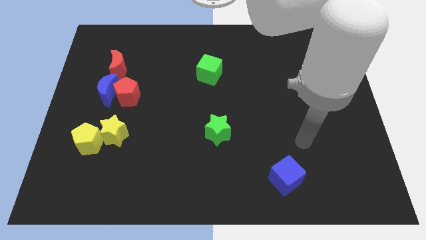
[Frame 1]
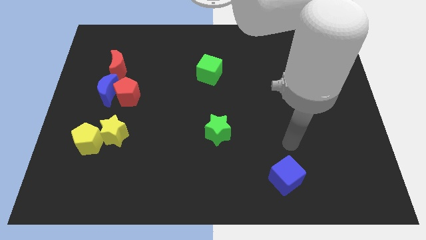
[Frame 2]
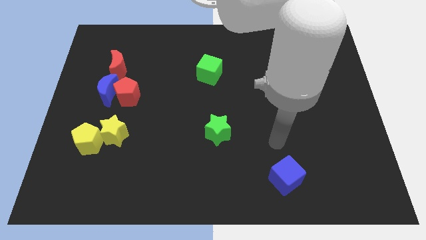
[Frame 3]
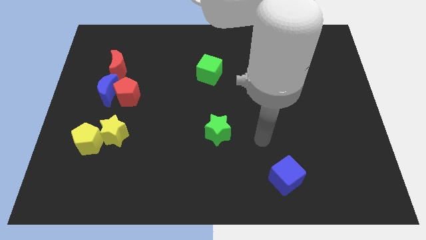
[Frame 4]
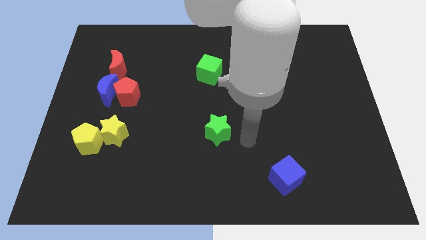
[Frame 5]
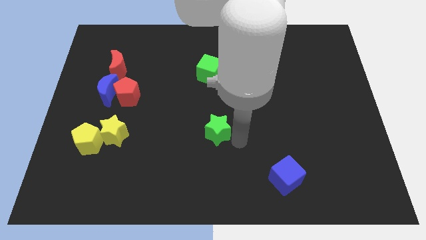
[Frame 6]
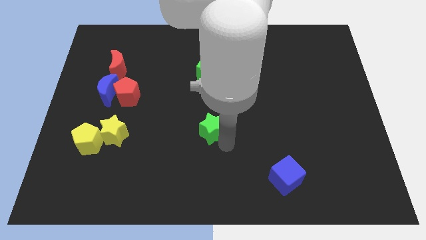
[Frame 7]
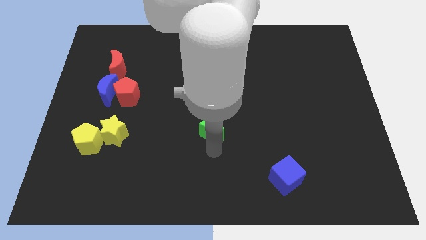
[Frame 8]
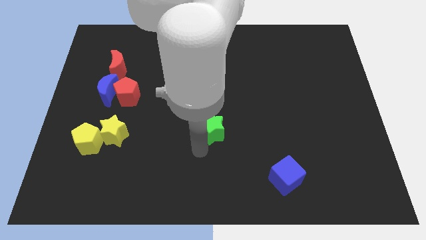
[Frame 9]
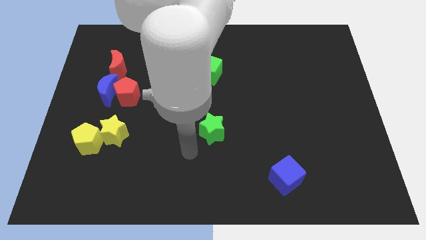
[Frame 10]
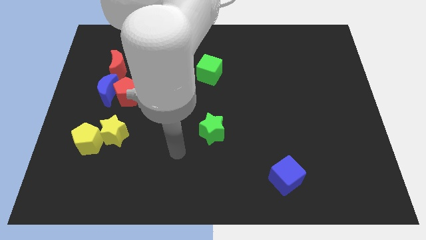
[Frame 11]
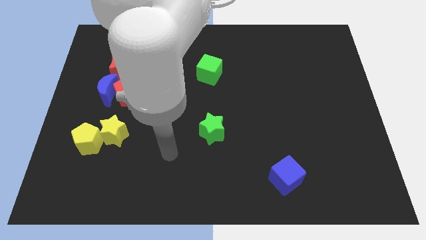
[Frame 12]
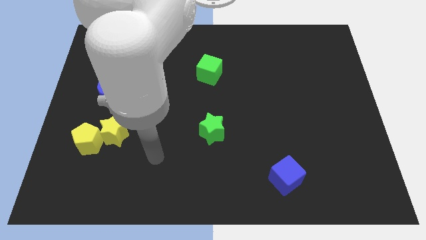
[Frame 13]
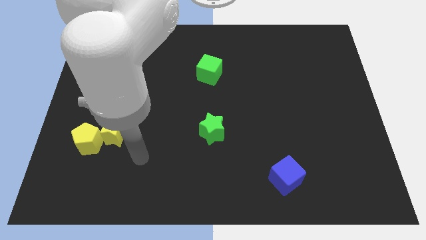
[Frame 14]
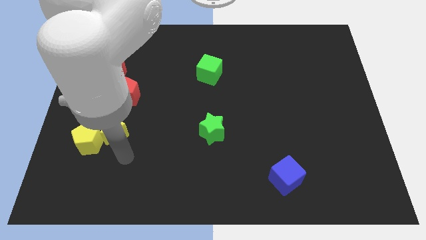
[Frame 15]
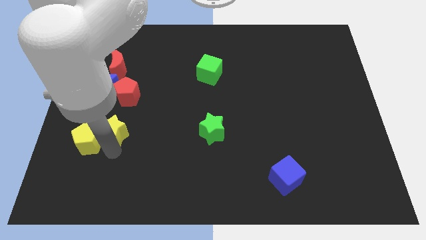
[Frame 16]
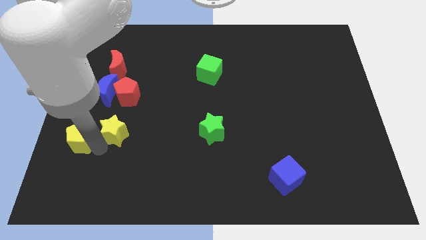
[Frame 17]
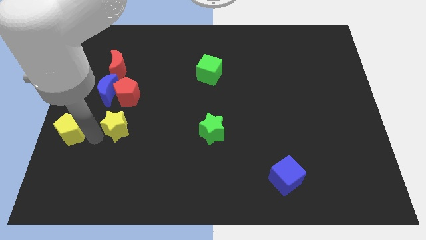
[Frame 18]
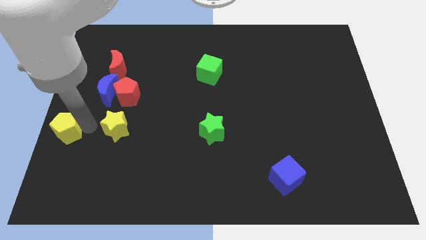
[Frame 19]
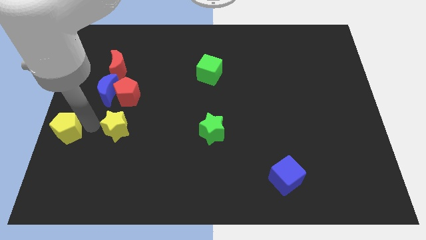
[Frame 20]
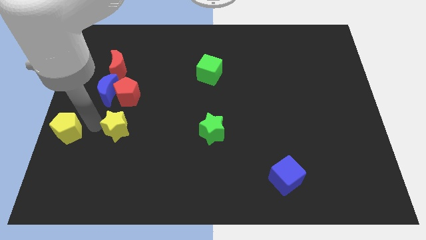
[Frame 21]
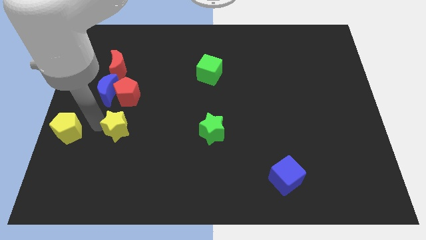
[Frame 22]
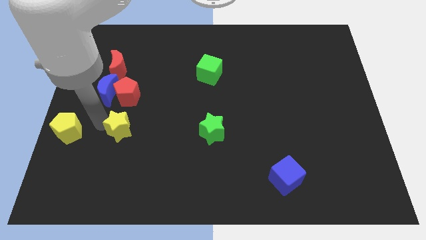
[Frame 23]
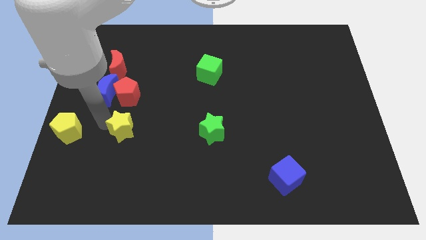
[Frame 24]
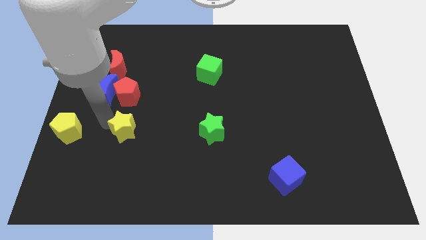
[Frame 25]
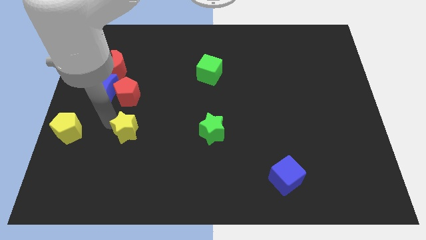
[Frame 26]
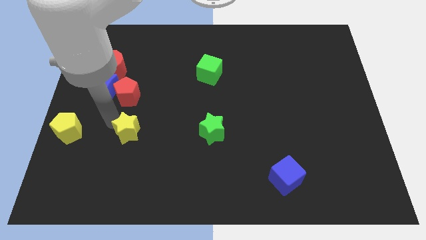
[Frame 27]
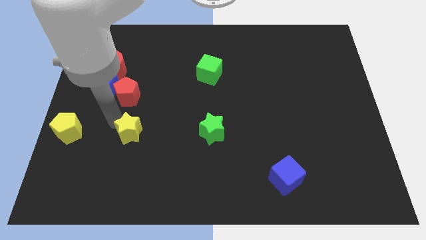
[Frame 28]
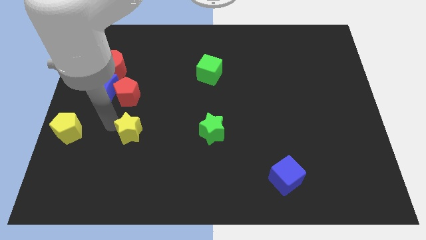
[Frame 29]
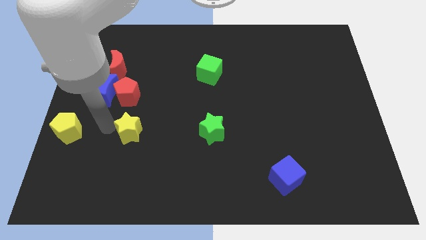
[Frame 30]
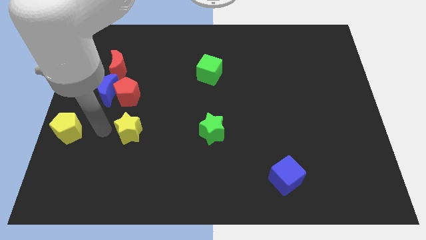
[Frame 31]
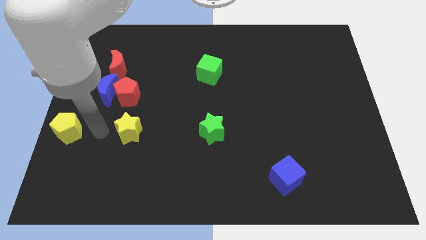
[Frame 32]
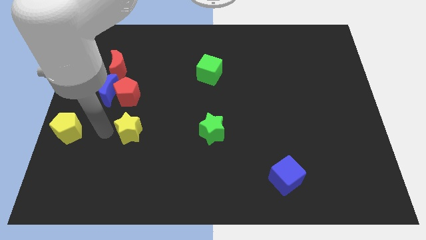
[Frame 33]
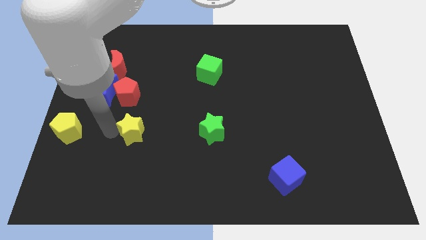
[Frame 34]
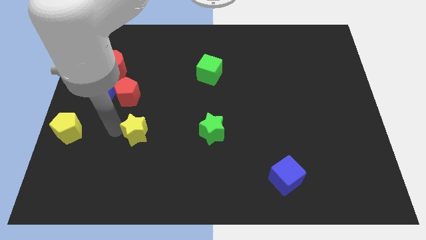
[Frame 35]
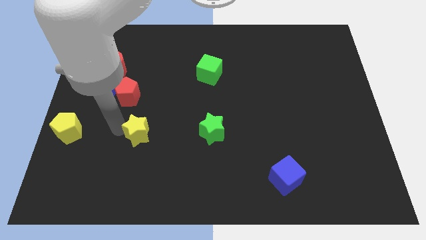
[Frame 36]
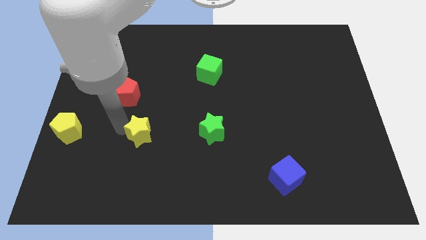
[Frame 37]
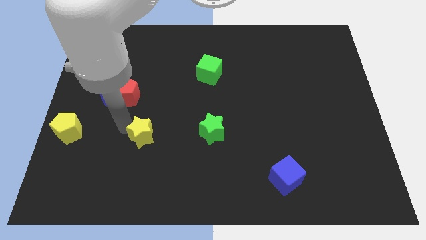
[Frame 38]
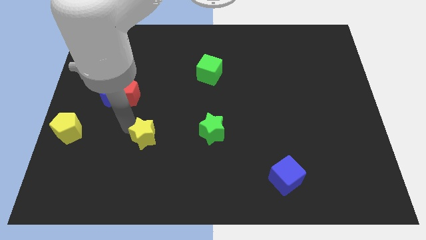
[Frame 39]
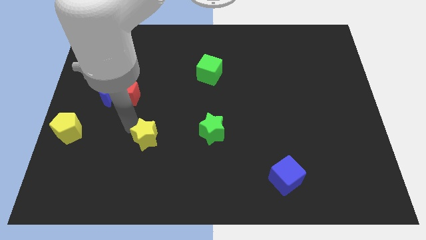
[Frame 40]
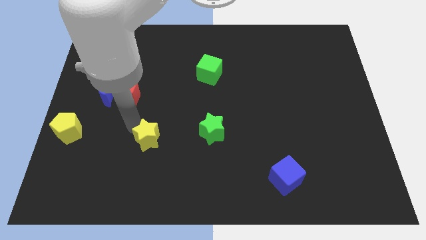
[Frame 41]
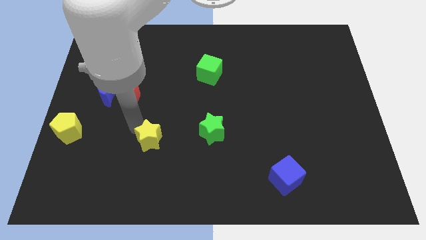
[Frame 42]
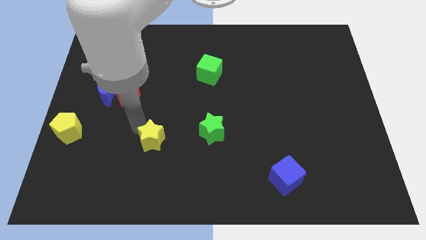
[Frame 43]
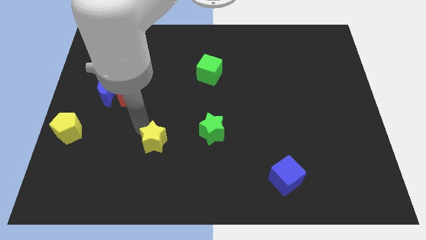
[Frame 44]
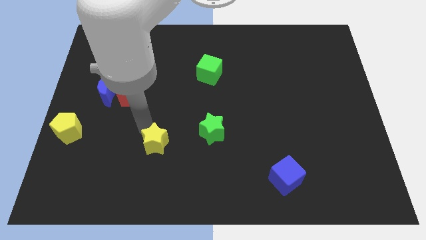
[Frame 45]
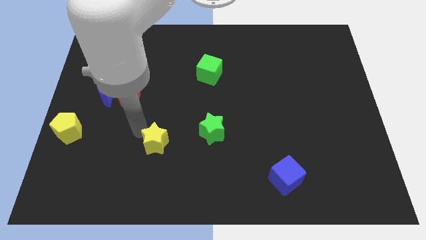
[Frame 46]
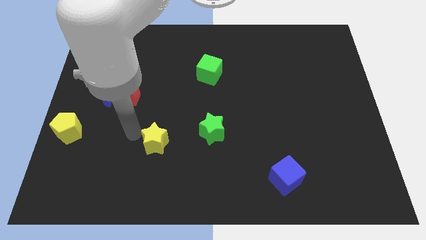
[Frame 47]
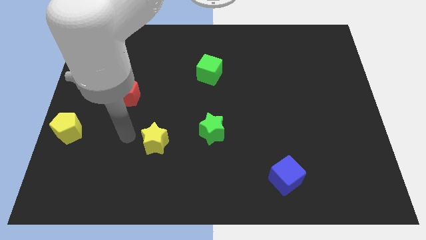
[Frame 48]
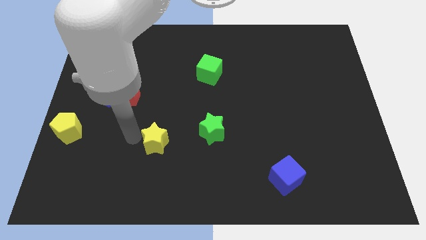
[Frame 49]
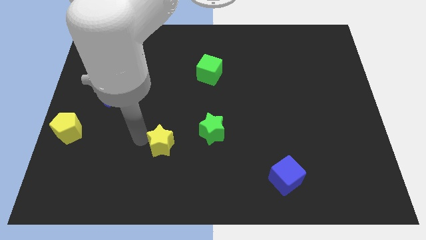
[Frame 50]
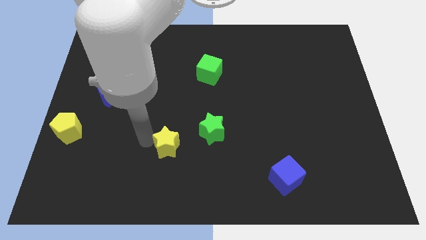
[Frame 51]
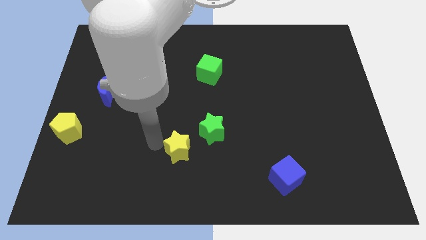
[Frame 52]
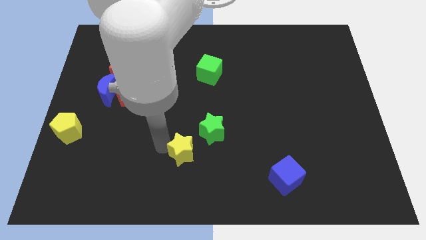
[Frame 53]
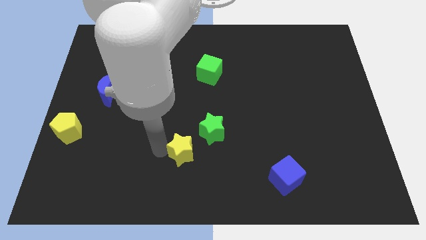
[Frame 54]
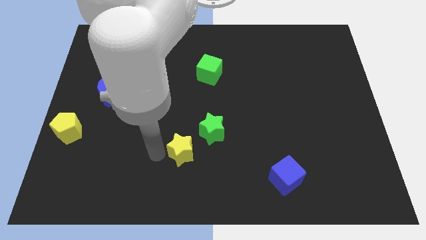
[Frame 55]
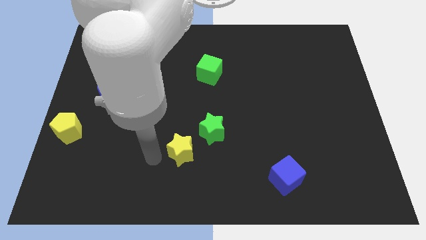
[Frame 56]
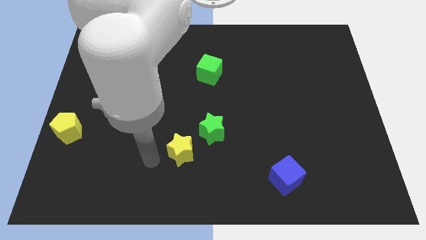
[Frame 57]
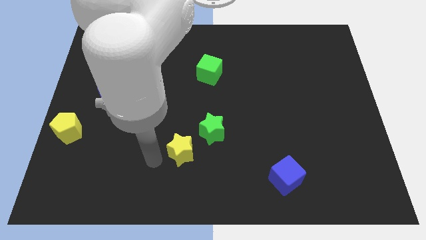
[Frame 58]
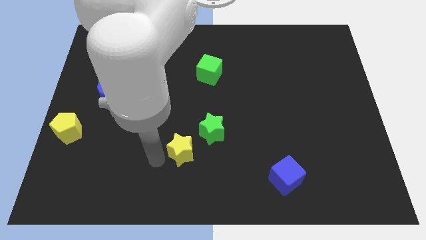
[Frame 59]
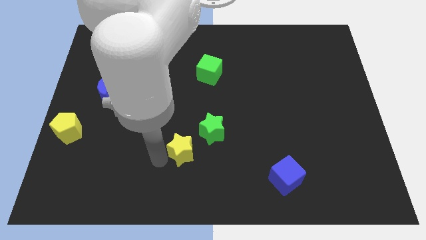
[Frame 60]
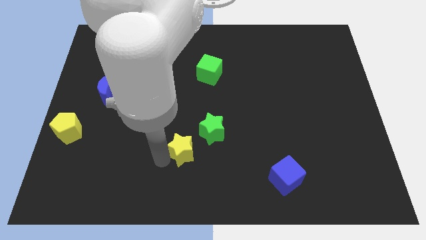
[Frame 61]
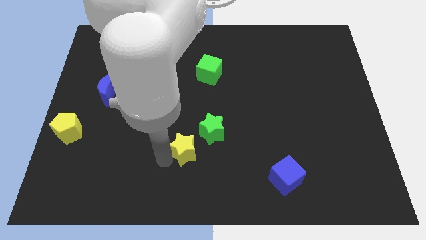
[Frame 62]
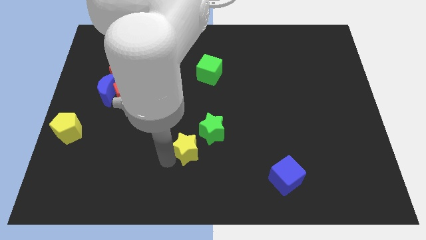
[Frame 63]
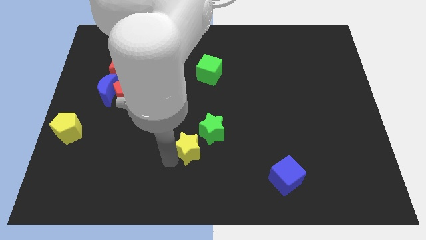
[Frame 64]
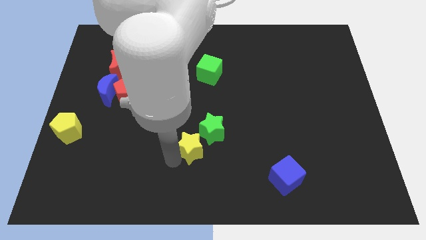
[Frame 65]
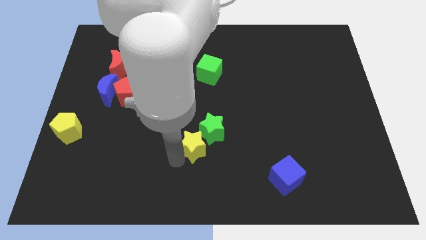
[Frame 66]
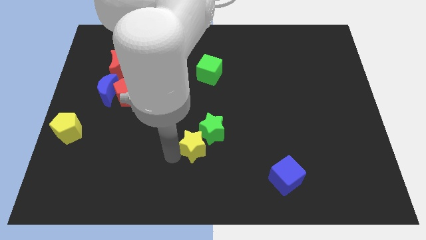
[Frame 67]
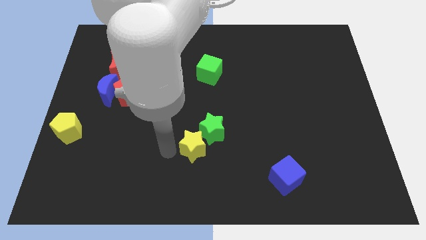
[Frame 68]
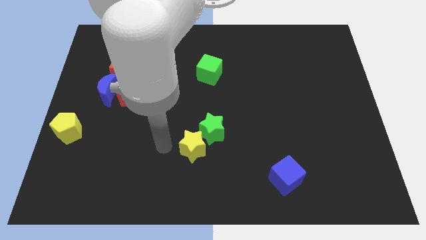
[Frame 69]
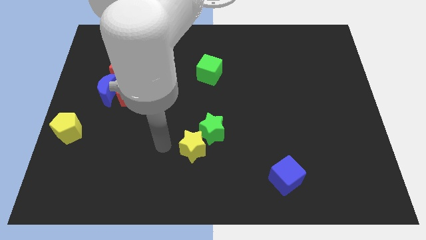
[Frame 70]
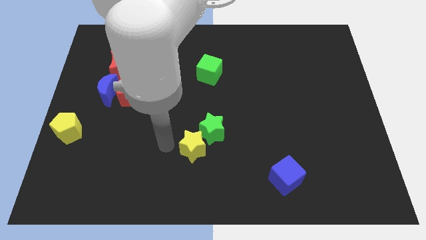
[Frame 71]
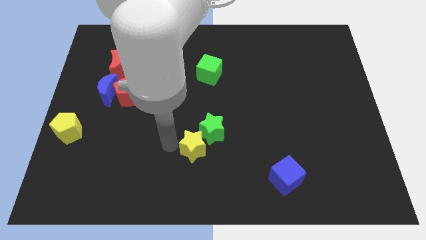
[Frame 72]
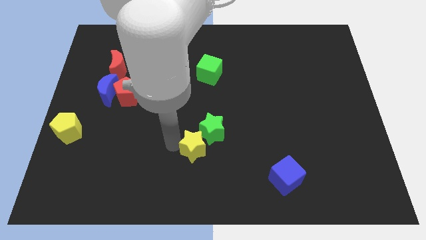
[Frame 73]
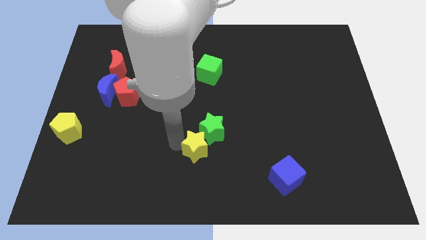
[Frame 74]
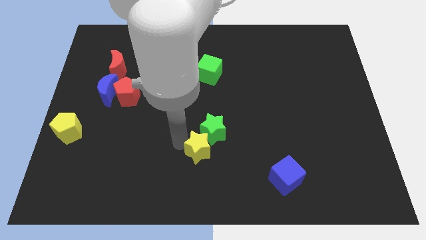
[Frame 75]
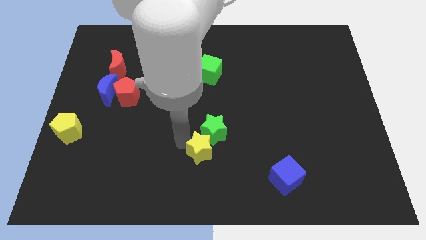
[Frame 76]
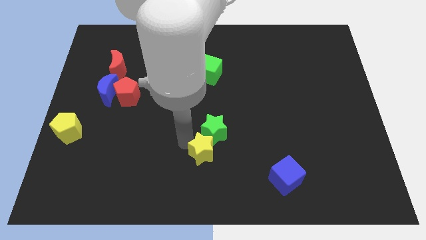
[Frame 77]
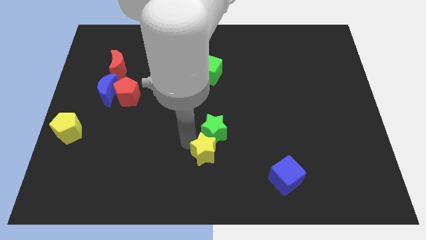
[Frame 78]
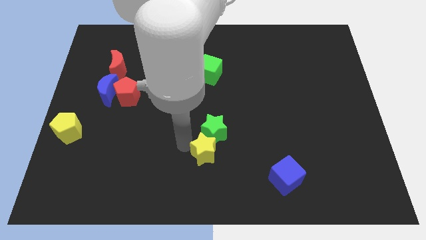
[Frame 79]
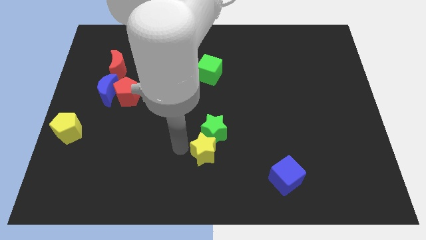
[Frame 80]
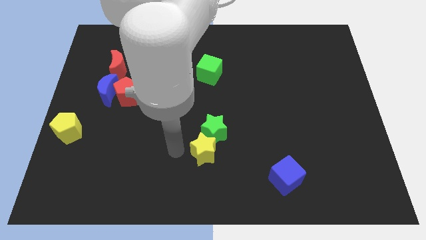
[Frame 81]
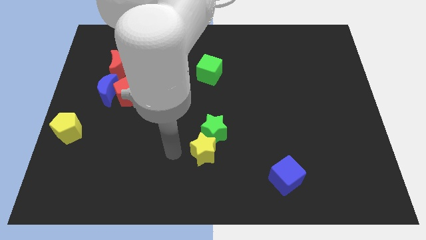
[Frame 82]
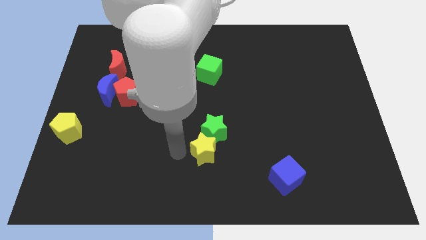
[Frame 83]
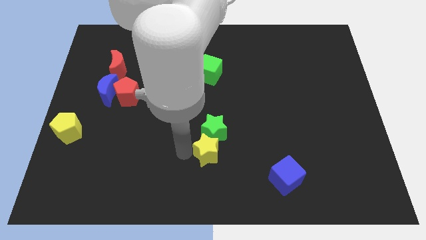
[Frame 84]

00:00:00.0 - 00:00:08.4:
slide the yellow star right

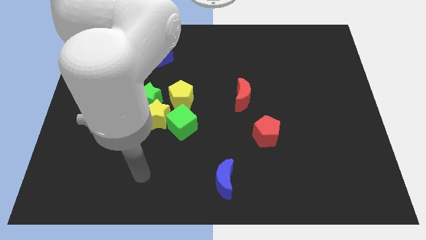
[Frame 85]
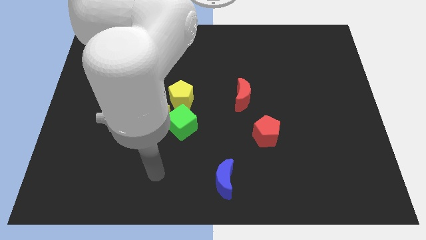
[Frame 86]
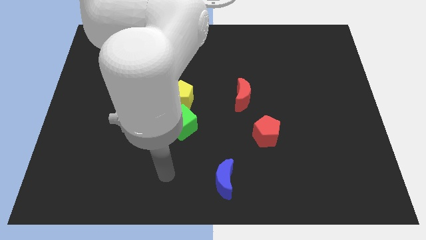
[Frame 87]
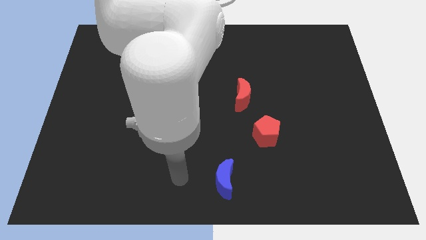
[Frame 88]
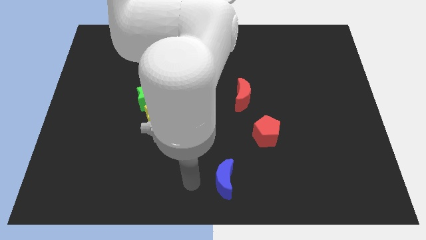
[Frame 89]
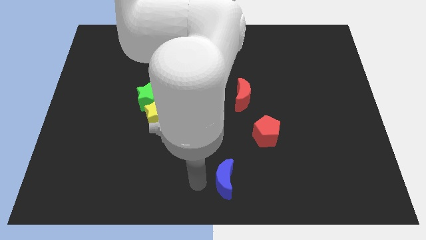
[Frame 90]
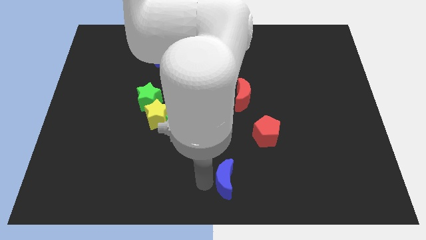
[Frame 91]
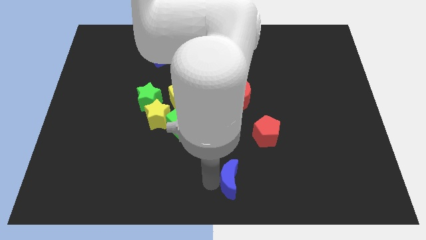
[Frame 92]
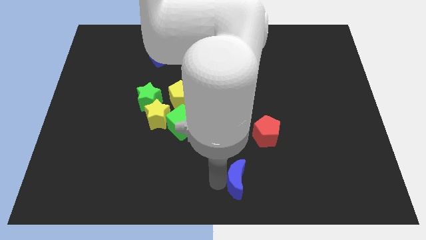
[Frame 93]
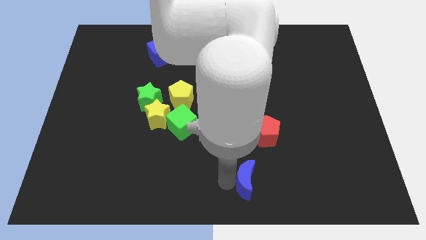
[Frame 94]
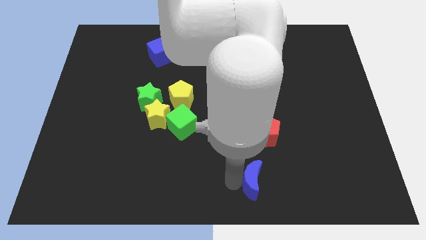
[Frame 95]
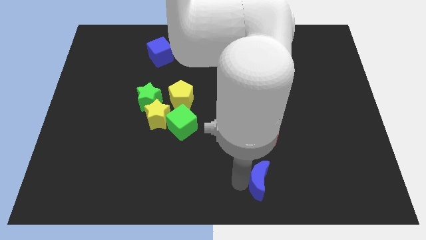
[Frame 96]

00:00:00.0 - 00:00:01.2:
slightly slide the blue moon to the right
